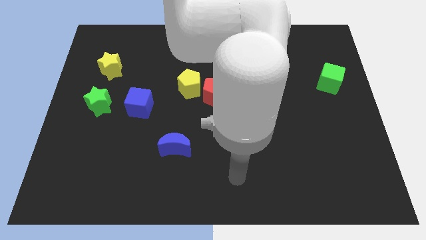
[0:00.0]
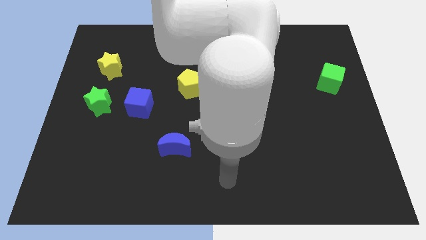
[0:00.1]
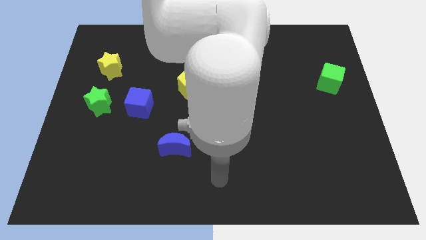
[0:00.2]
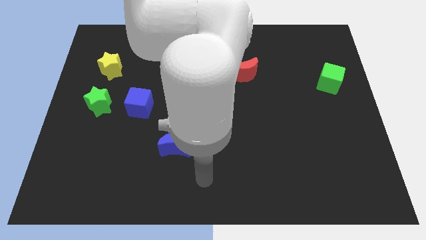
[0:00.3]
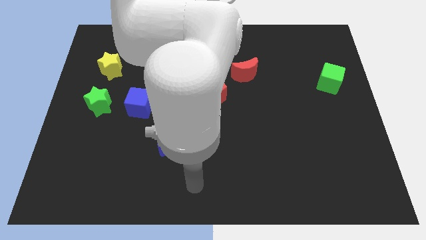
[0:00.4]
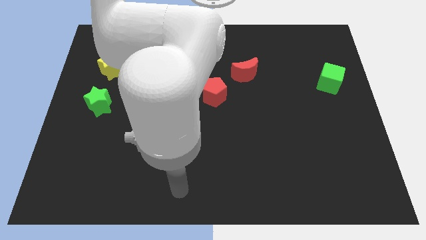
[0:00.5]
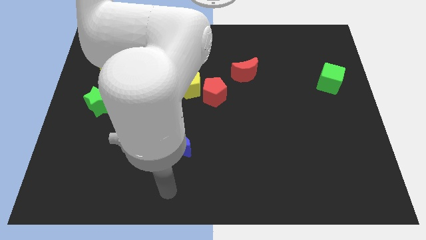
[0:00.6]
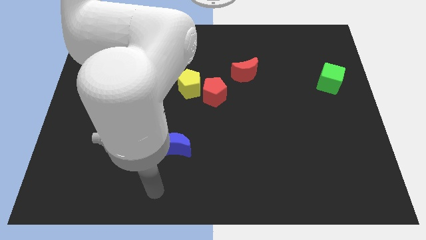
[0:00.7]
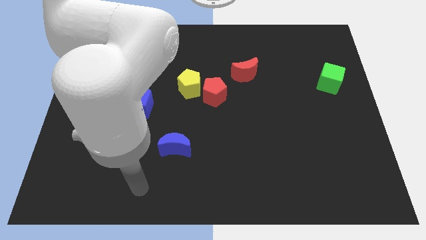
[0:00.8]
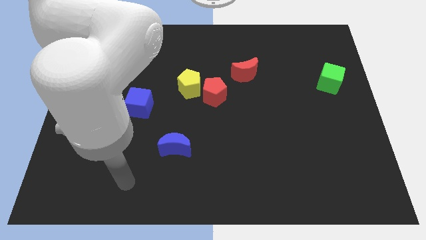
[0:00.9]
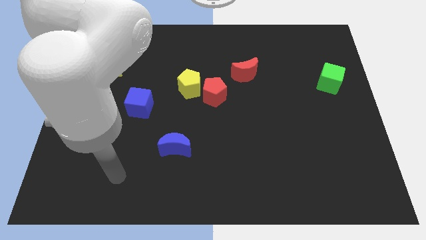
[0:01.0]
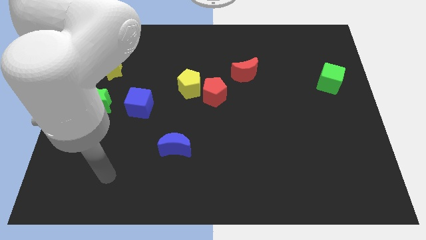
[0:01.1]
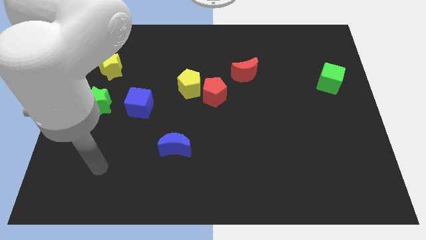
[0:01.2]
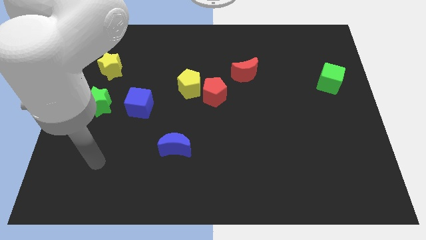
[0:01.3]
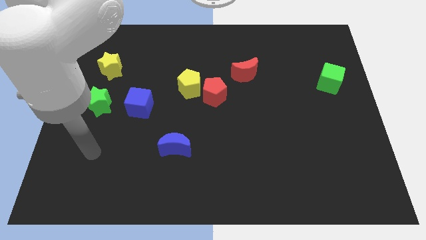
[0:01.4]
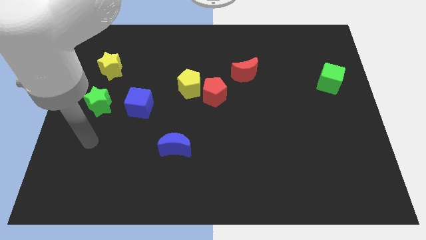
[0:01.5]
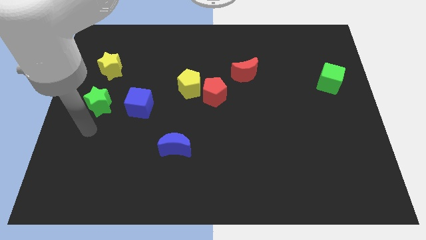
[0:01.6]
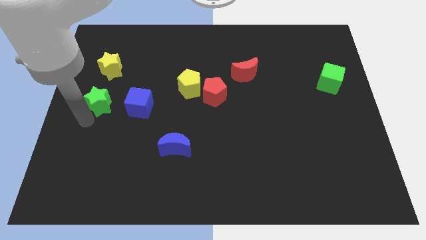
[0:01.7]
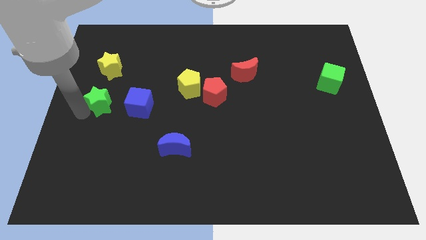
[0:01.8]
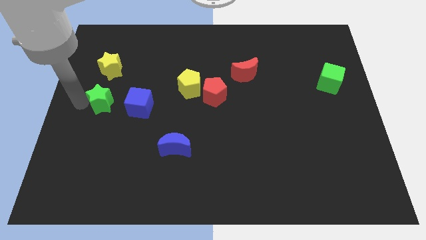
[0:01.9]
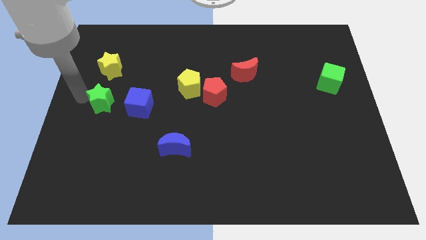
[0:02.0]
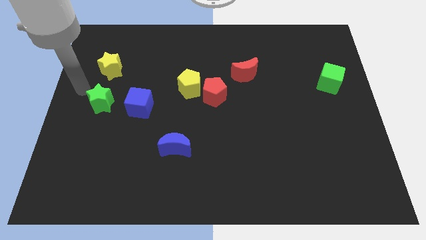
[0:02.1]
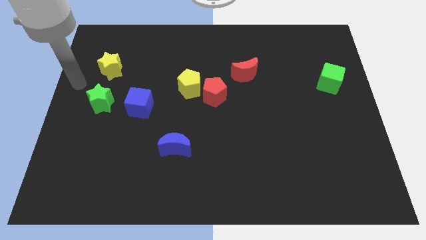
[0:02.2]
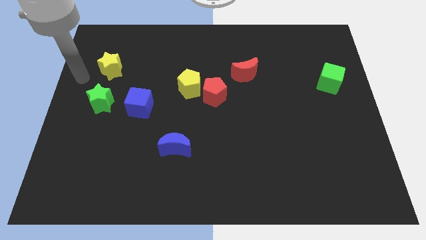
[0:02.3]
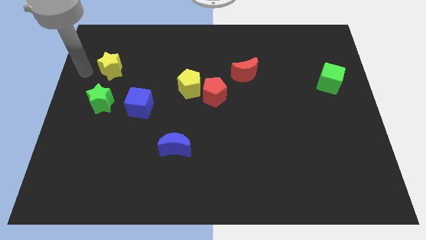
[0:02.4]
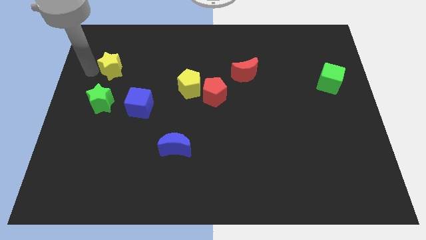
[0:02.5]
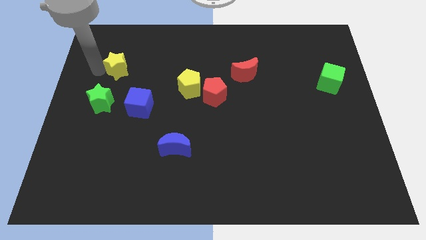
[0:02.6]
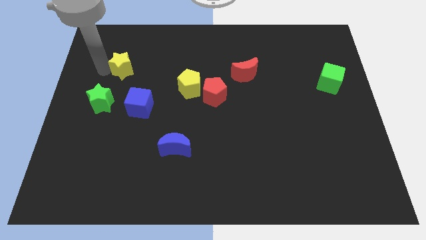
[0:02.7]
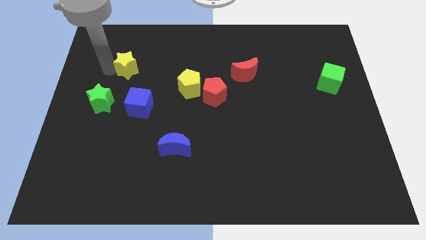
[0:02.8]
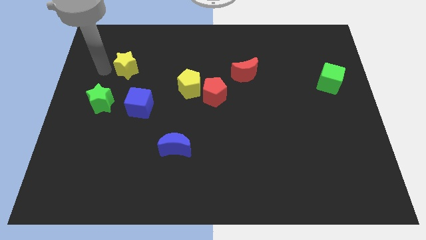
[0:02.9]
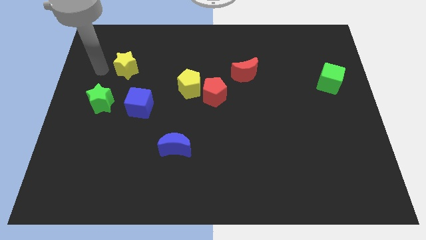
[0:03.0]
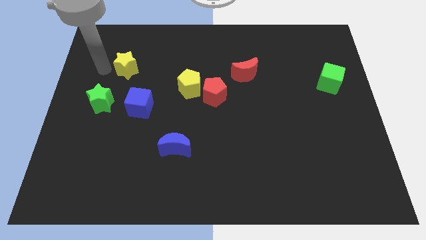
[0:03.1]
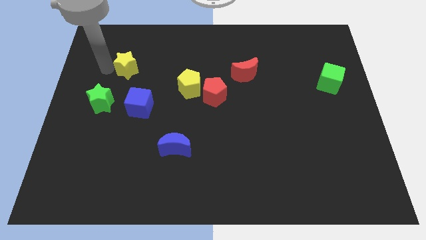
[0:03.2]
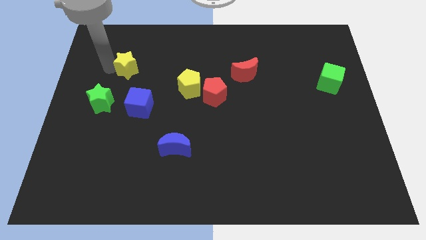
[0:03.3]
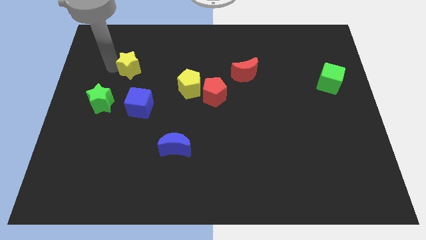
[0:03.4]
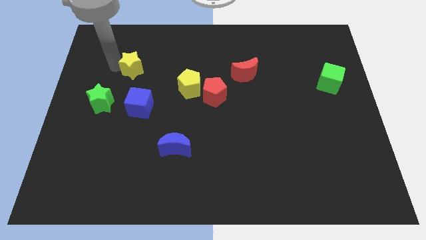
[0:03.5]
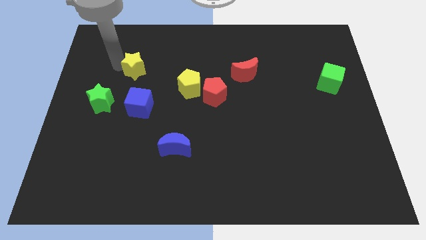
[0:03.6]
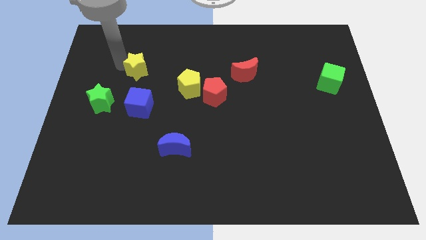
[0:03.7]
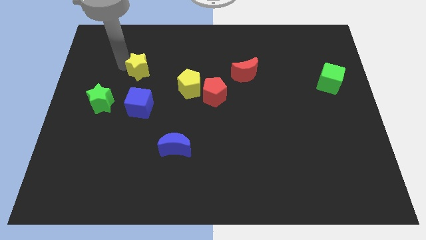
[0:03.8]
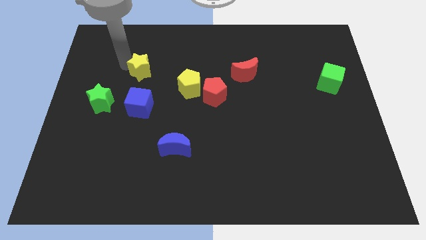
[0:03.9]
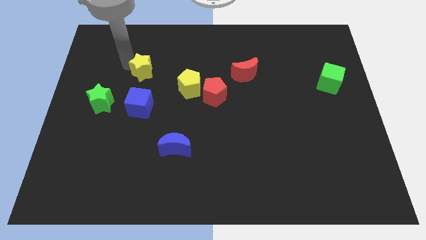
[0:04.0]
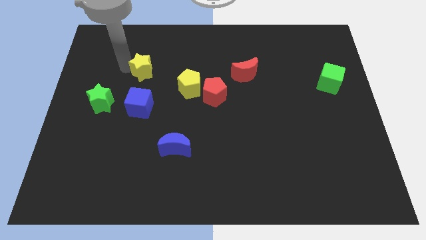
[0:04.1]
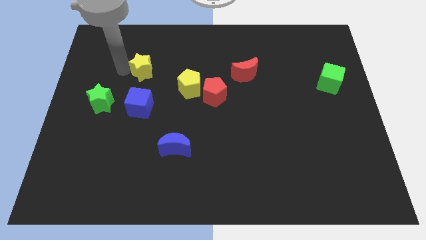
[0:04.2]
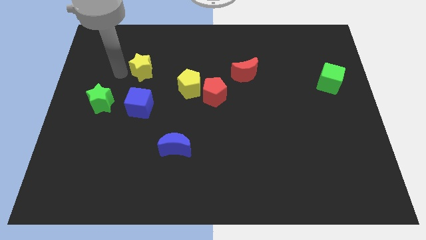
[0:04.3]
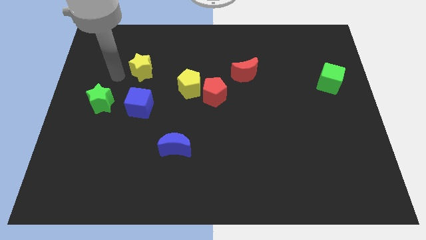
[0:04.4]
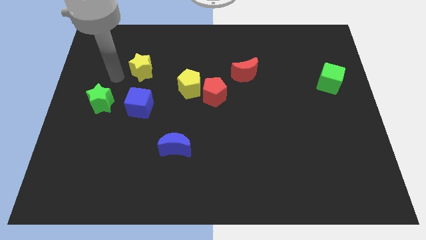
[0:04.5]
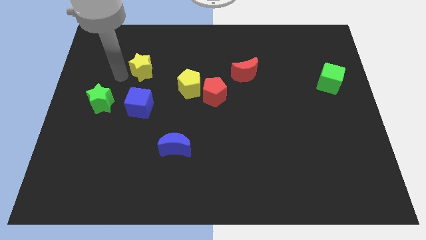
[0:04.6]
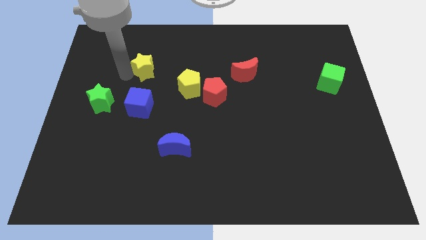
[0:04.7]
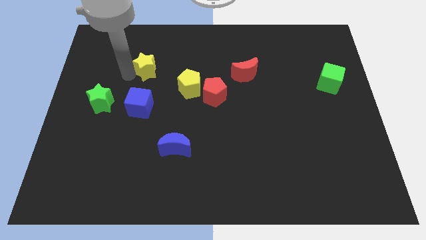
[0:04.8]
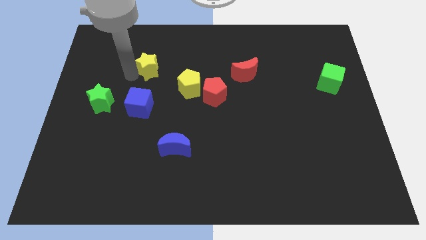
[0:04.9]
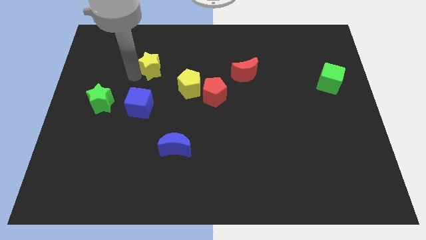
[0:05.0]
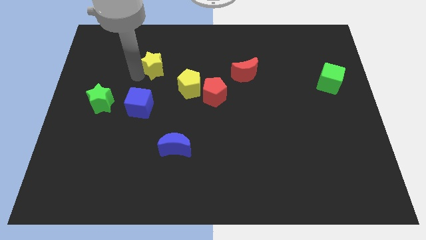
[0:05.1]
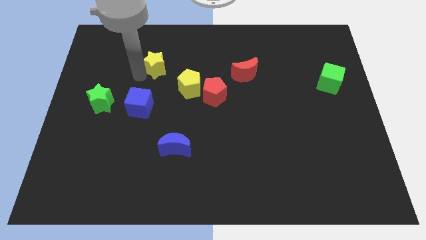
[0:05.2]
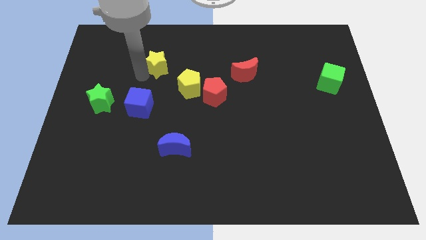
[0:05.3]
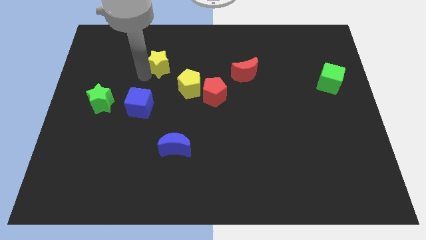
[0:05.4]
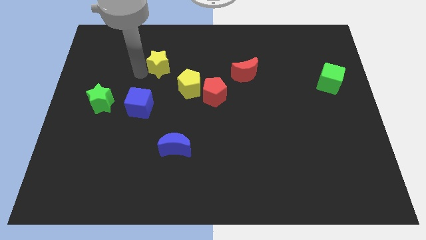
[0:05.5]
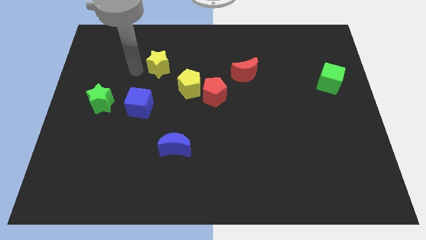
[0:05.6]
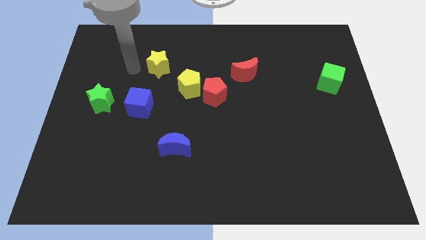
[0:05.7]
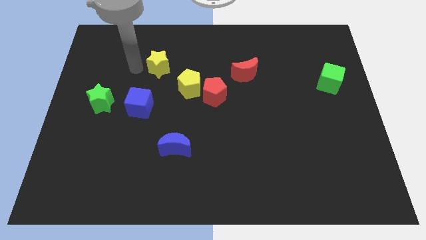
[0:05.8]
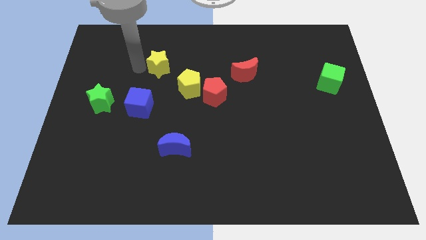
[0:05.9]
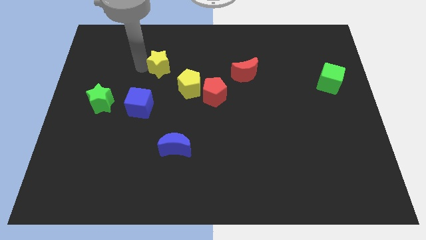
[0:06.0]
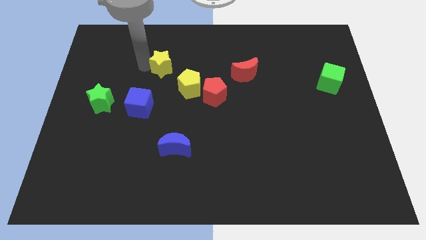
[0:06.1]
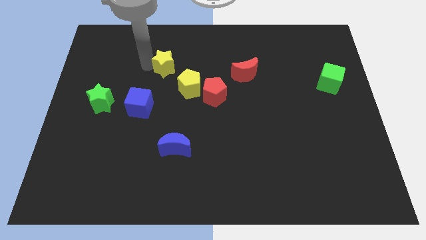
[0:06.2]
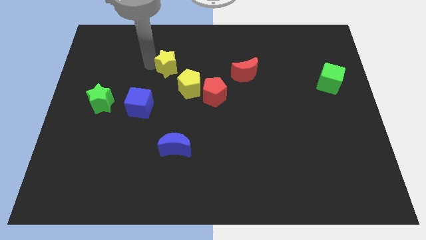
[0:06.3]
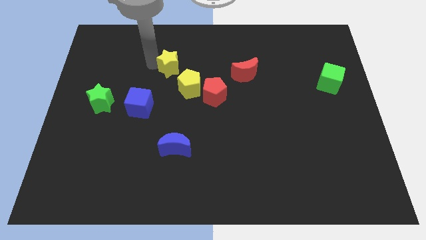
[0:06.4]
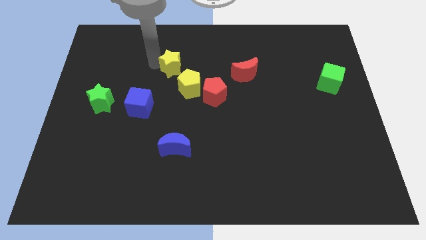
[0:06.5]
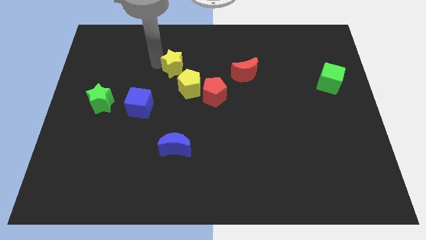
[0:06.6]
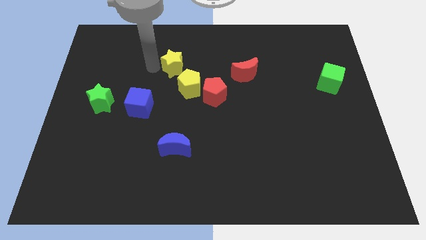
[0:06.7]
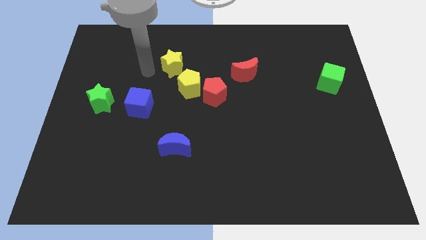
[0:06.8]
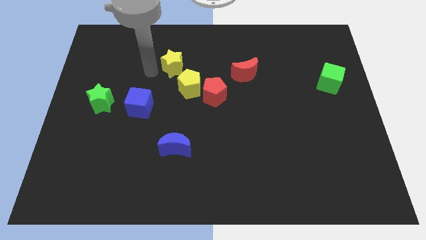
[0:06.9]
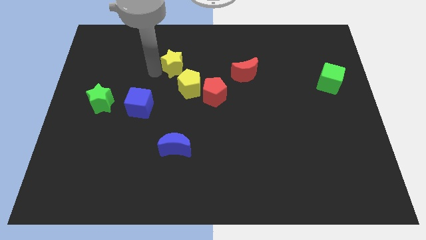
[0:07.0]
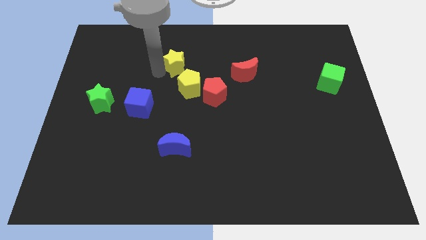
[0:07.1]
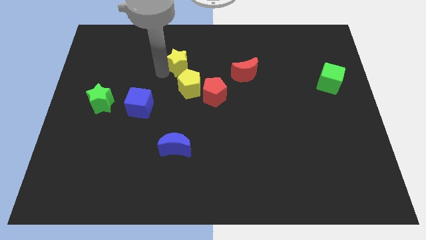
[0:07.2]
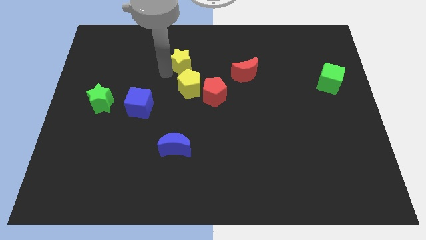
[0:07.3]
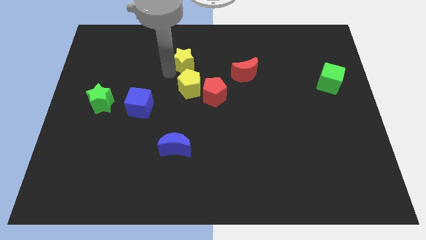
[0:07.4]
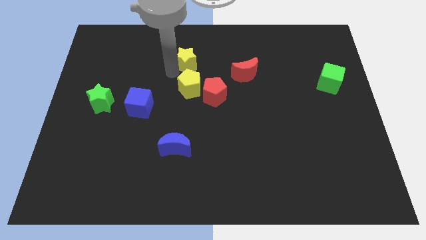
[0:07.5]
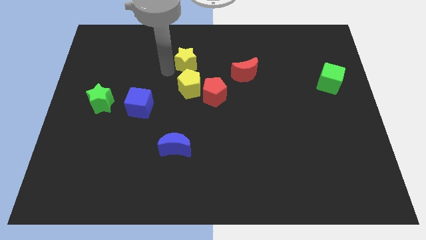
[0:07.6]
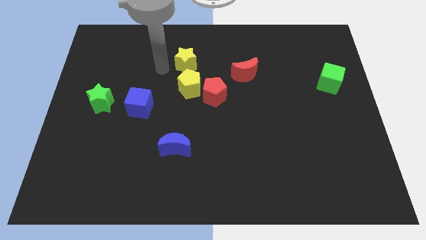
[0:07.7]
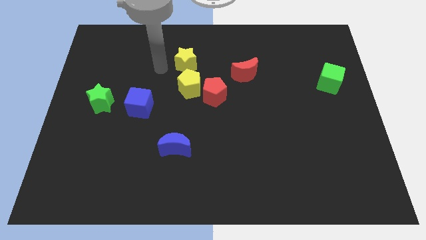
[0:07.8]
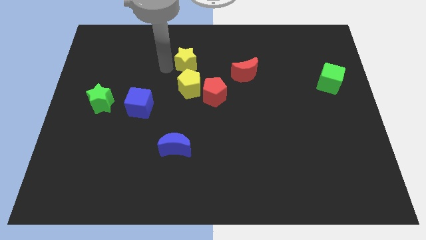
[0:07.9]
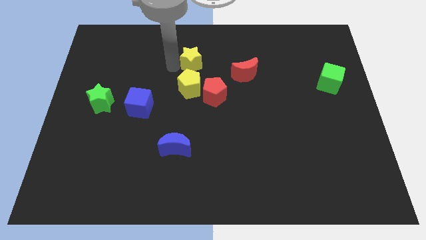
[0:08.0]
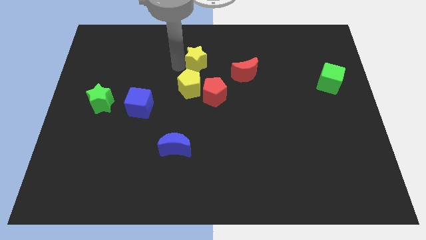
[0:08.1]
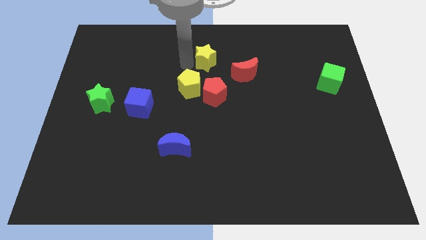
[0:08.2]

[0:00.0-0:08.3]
move the yellow star diagonally up and to the left of the red moon
